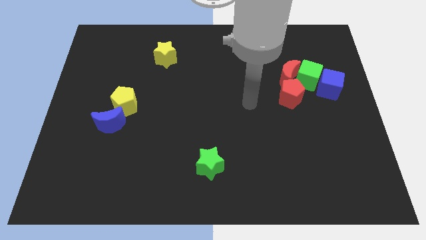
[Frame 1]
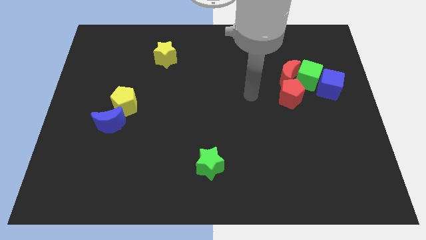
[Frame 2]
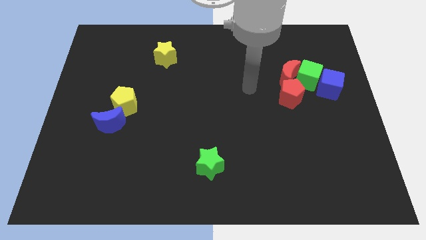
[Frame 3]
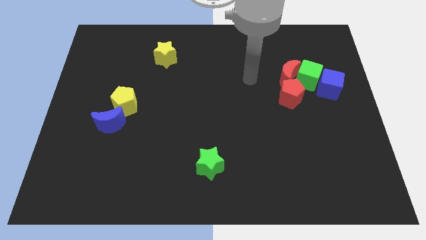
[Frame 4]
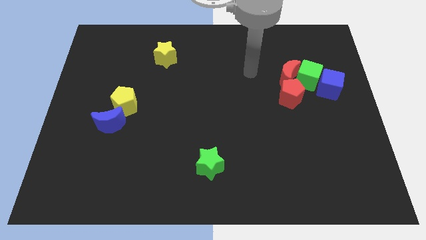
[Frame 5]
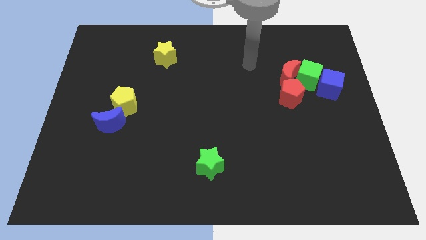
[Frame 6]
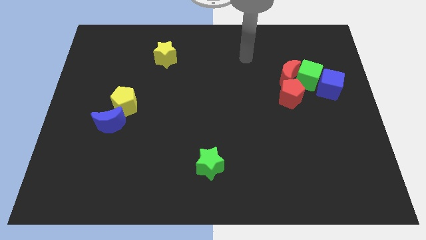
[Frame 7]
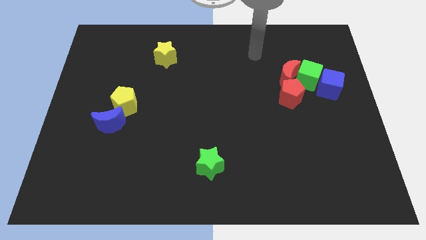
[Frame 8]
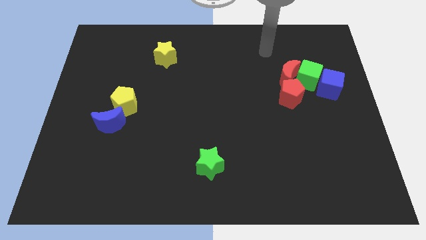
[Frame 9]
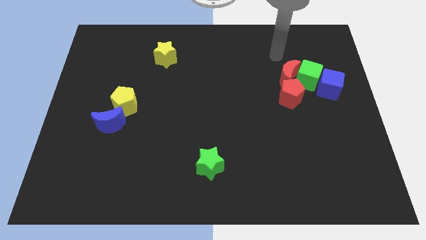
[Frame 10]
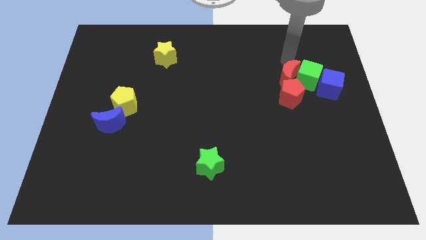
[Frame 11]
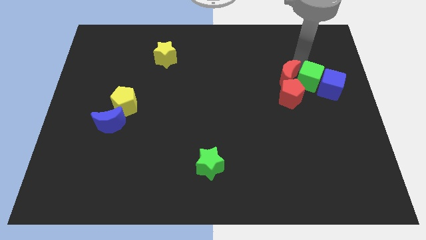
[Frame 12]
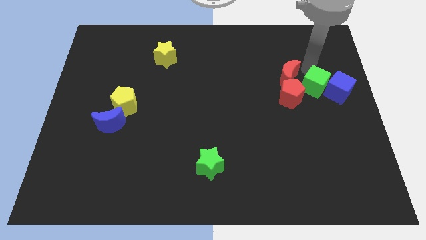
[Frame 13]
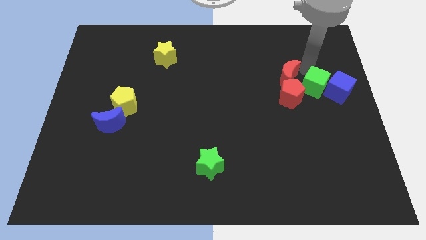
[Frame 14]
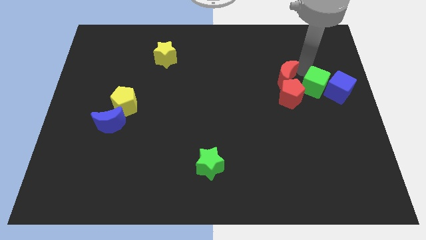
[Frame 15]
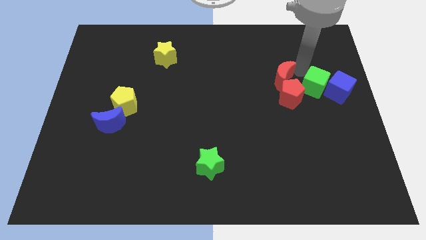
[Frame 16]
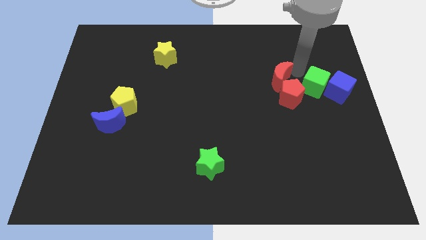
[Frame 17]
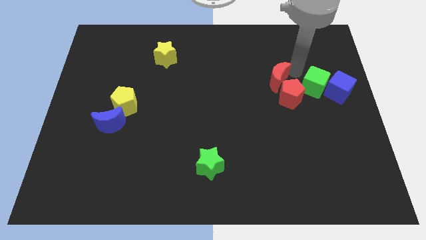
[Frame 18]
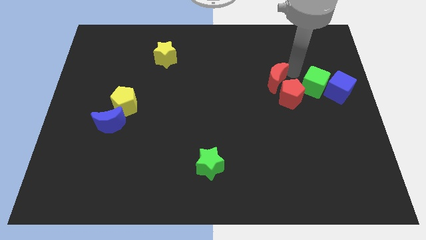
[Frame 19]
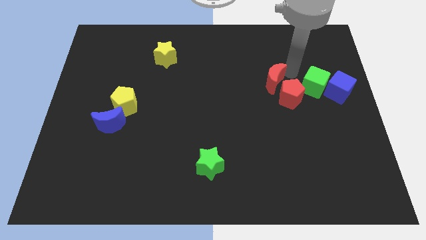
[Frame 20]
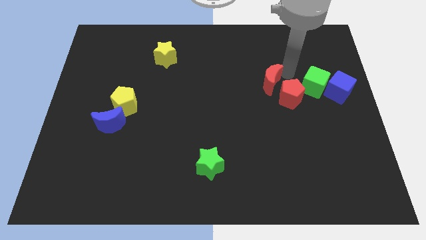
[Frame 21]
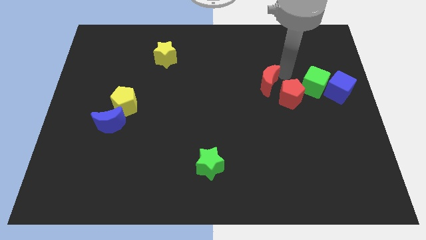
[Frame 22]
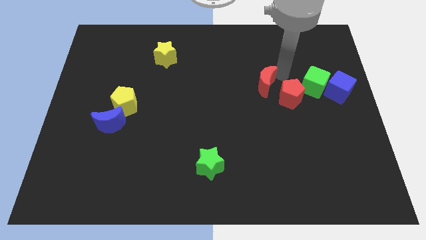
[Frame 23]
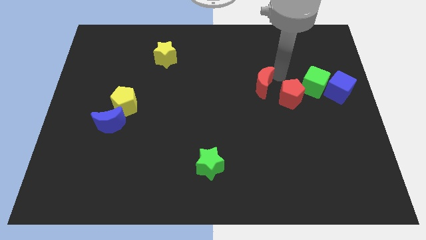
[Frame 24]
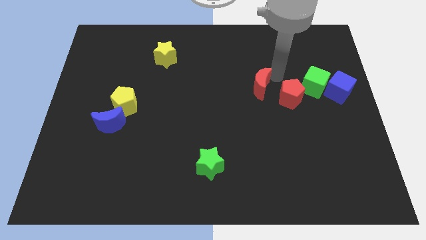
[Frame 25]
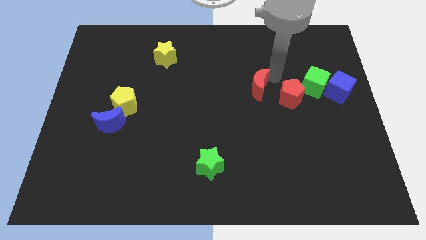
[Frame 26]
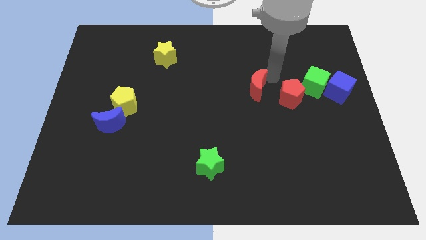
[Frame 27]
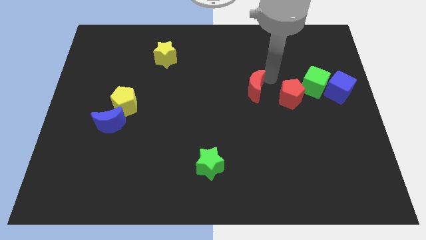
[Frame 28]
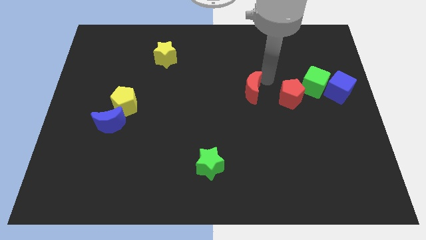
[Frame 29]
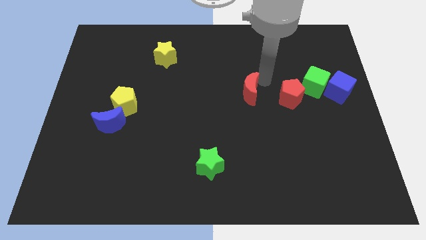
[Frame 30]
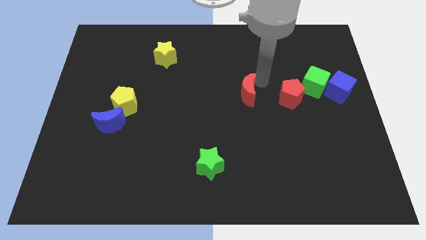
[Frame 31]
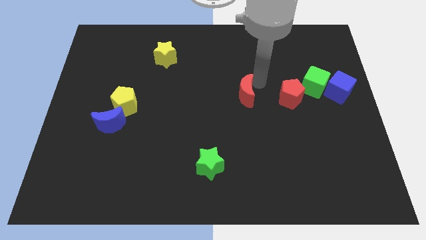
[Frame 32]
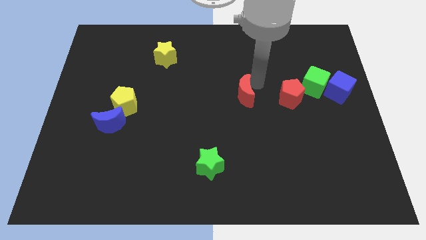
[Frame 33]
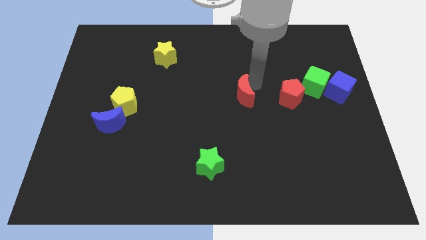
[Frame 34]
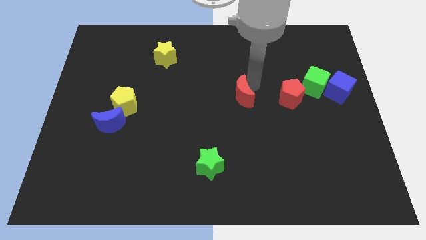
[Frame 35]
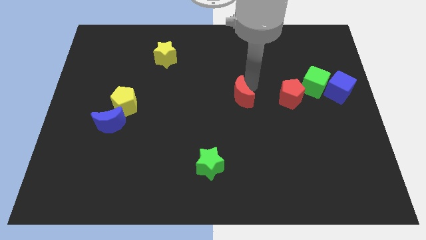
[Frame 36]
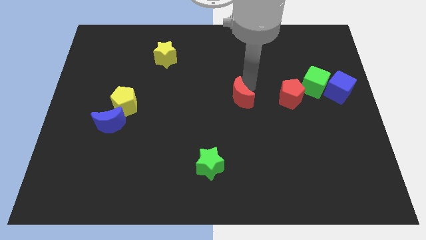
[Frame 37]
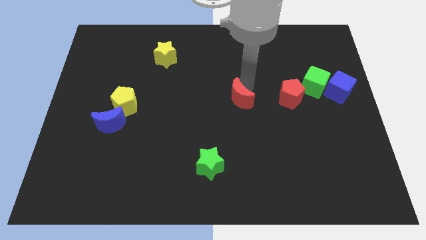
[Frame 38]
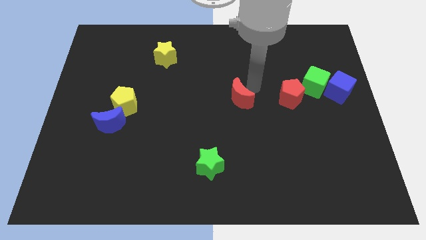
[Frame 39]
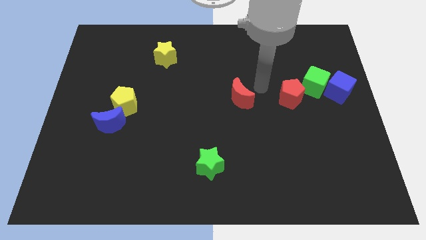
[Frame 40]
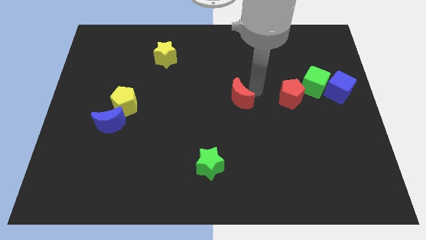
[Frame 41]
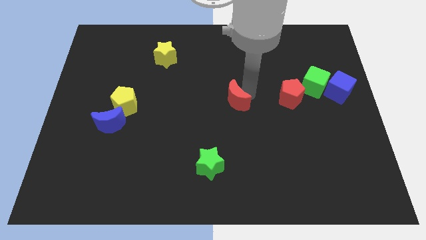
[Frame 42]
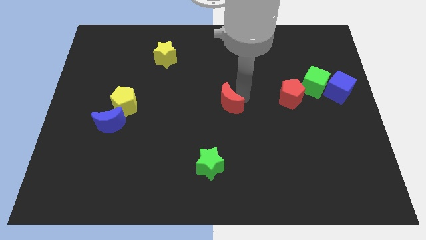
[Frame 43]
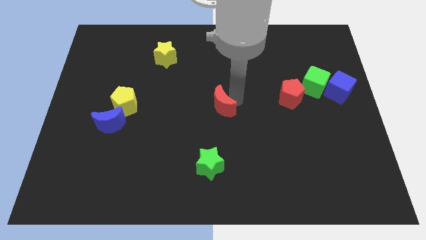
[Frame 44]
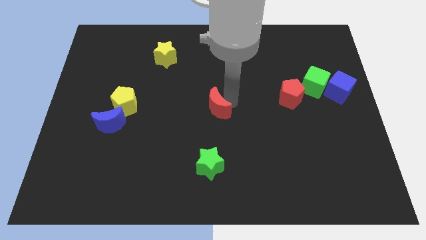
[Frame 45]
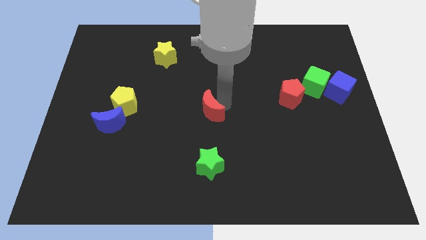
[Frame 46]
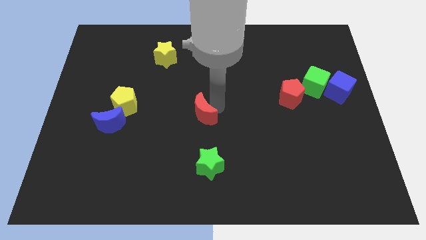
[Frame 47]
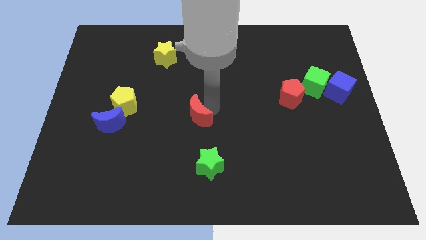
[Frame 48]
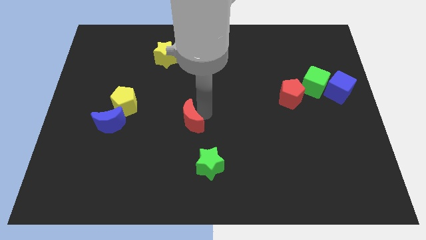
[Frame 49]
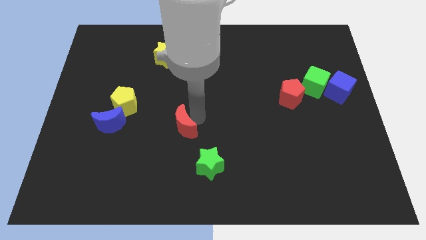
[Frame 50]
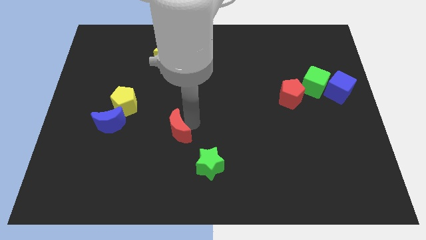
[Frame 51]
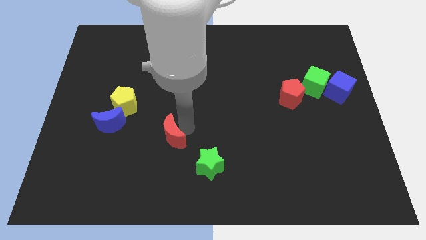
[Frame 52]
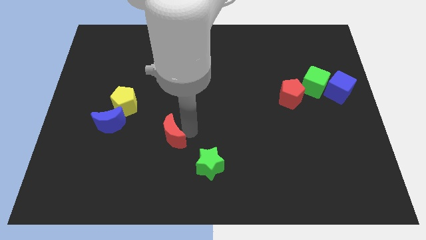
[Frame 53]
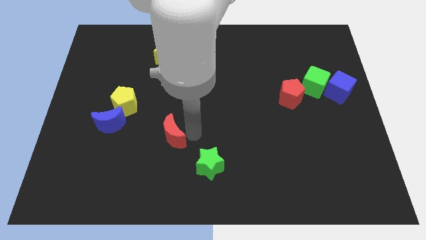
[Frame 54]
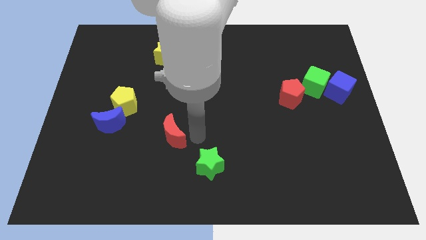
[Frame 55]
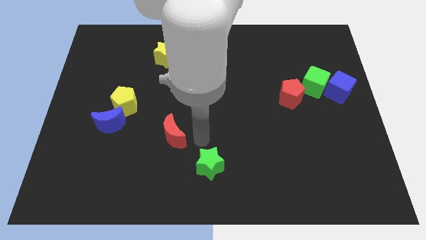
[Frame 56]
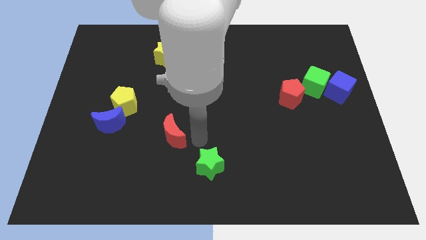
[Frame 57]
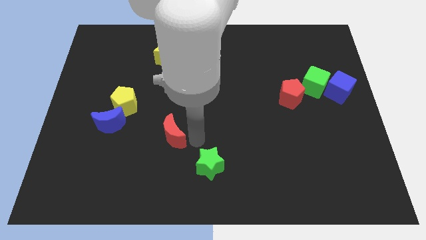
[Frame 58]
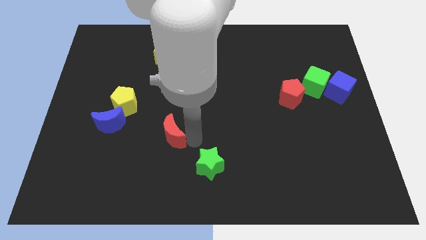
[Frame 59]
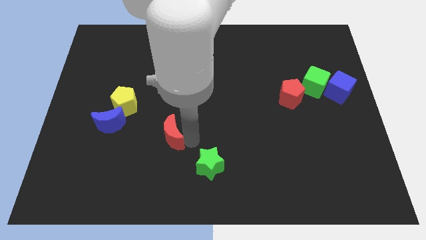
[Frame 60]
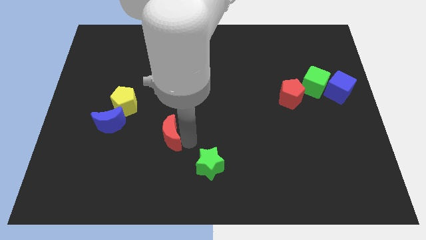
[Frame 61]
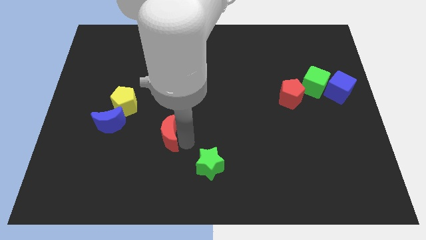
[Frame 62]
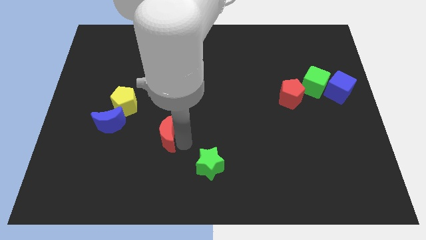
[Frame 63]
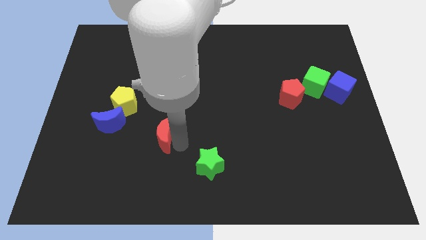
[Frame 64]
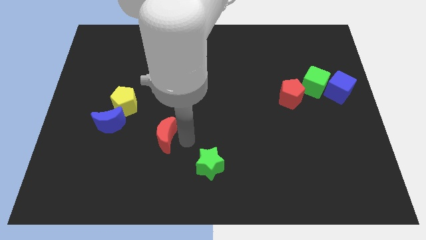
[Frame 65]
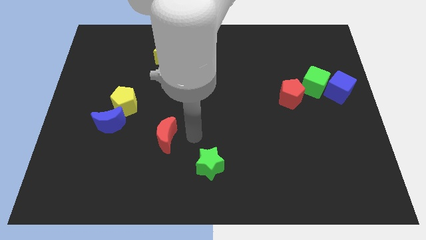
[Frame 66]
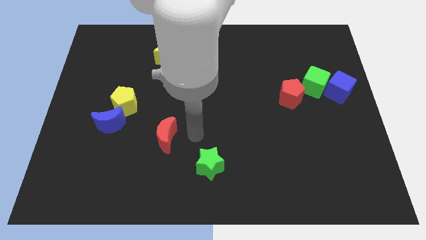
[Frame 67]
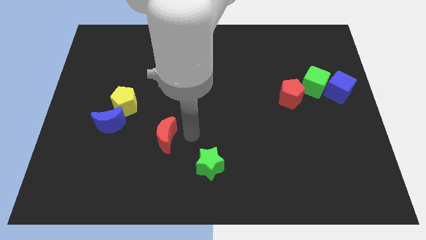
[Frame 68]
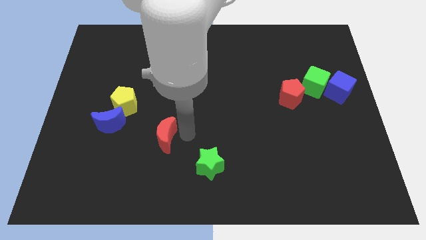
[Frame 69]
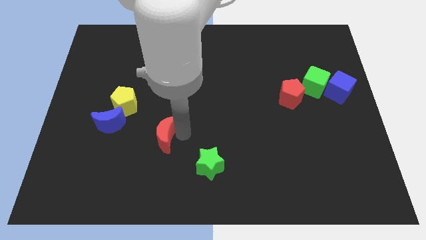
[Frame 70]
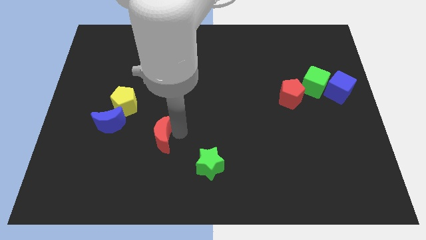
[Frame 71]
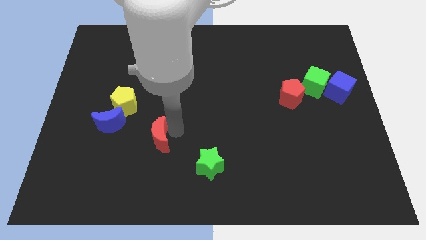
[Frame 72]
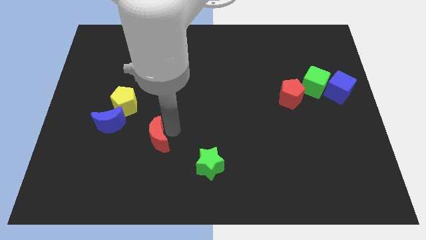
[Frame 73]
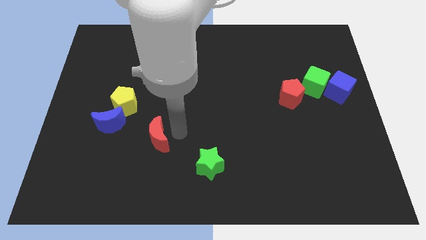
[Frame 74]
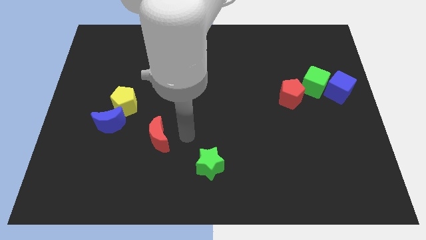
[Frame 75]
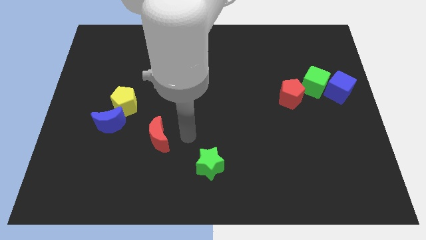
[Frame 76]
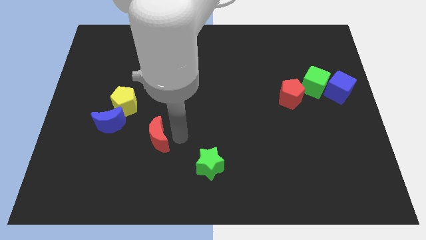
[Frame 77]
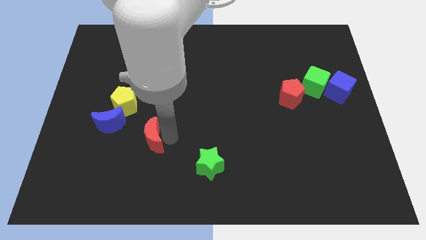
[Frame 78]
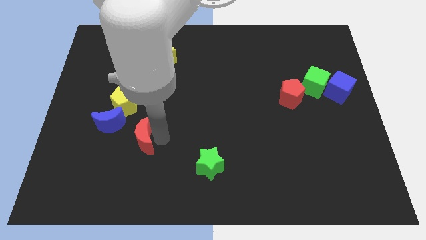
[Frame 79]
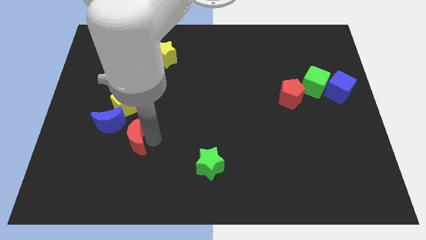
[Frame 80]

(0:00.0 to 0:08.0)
move the red moon to the bottom of the yellow pentagon
